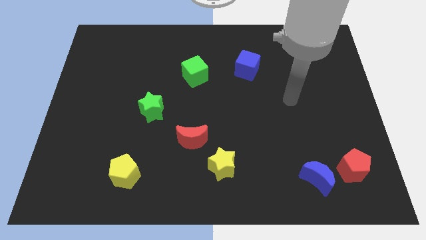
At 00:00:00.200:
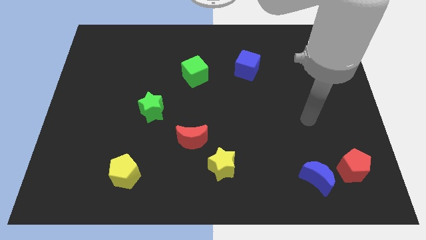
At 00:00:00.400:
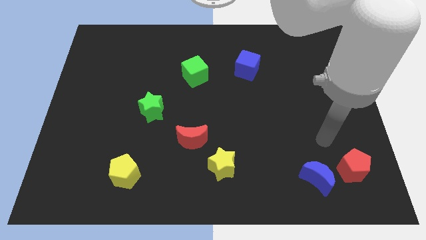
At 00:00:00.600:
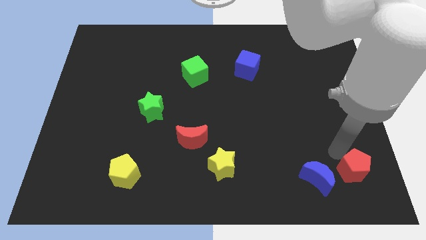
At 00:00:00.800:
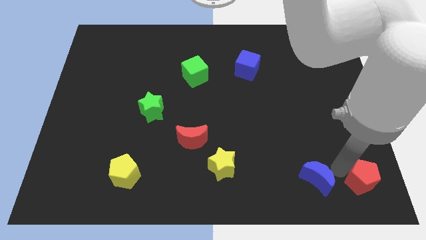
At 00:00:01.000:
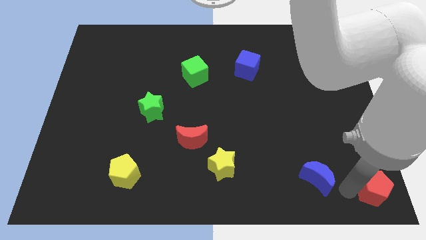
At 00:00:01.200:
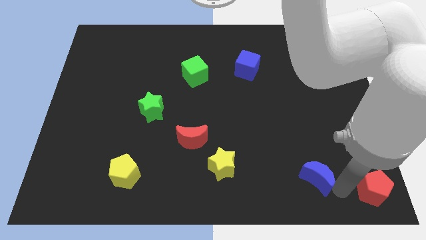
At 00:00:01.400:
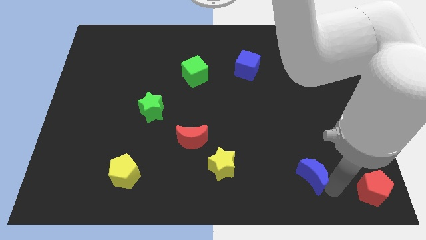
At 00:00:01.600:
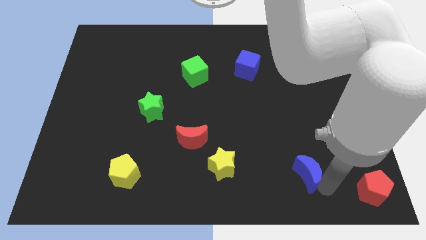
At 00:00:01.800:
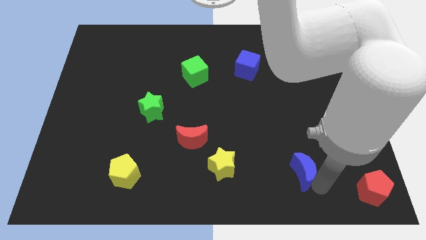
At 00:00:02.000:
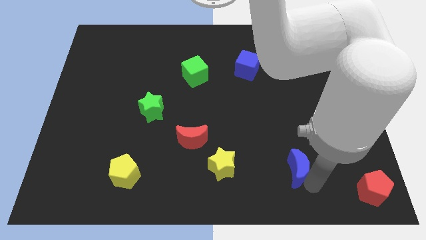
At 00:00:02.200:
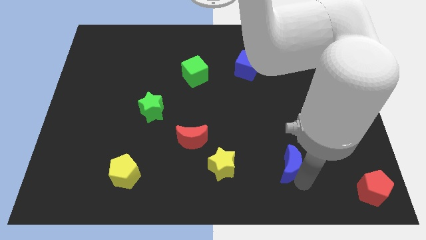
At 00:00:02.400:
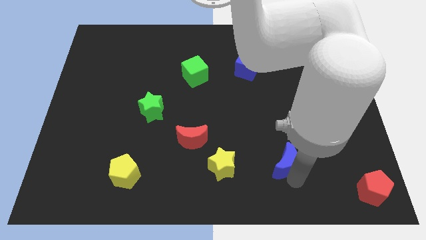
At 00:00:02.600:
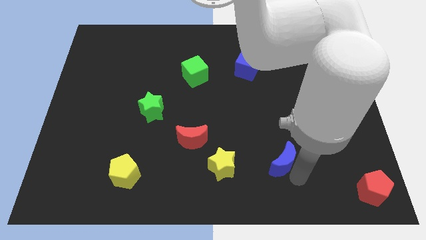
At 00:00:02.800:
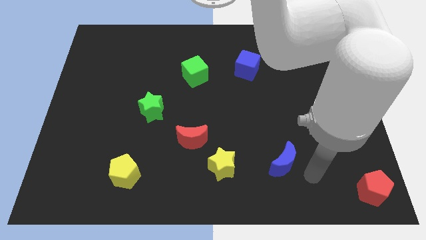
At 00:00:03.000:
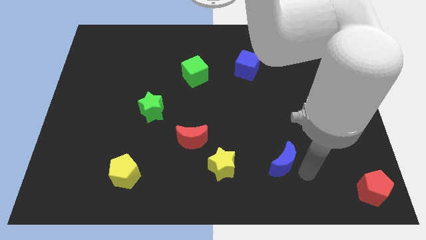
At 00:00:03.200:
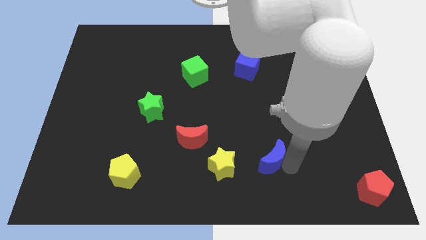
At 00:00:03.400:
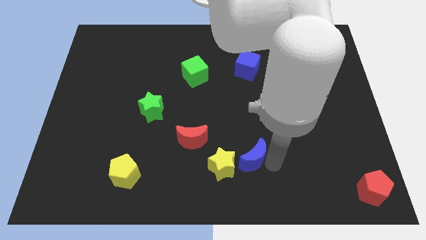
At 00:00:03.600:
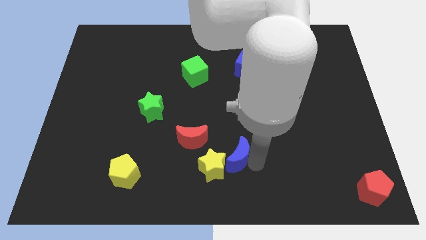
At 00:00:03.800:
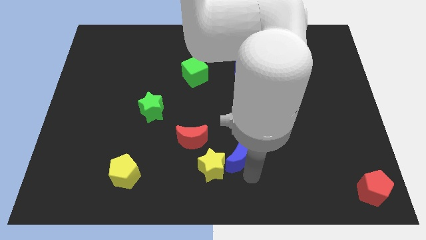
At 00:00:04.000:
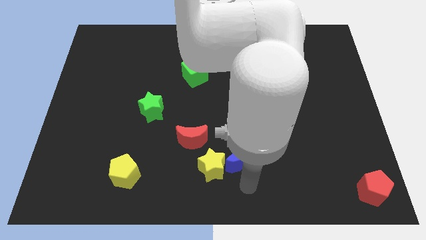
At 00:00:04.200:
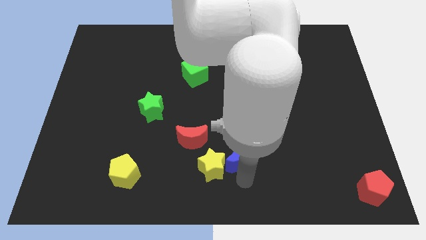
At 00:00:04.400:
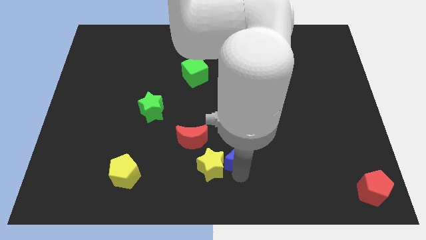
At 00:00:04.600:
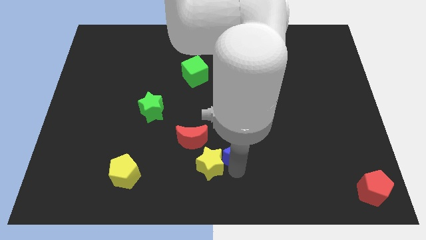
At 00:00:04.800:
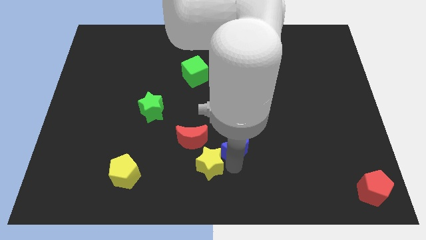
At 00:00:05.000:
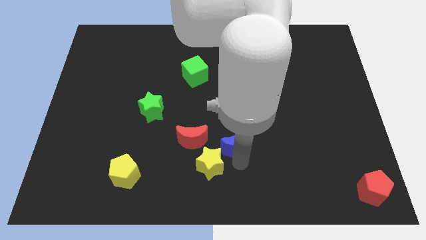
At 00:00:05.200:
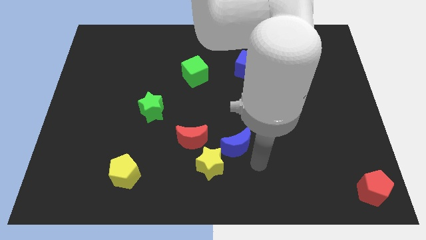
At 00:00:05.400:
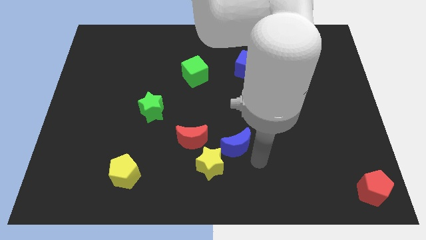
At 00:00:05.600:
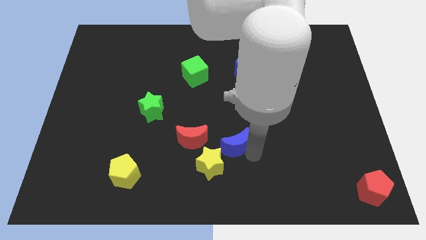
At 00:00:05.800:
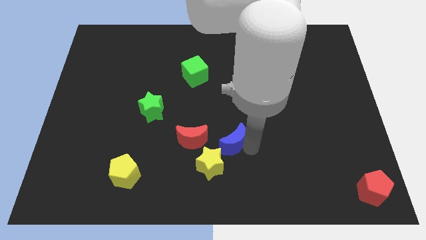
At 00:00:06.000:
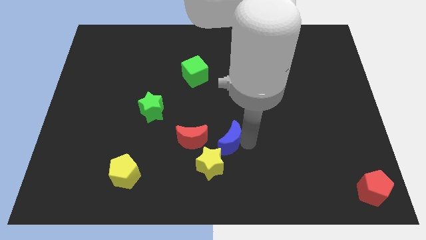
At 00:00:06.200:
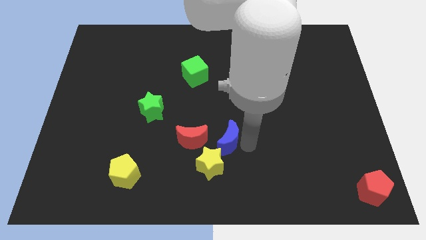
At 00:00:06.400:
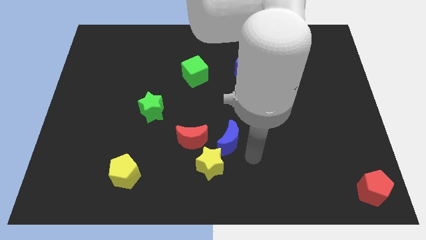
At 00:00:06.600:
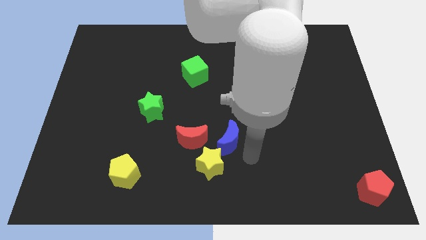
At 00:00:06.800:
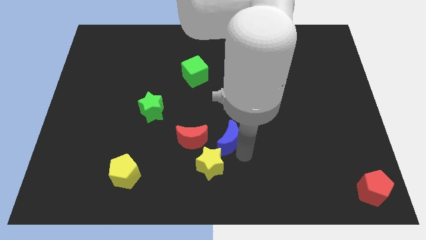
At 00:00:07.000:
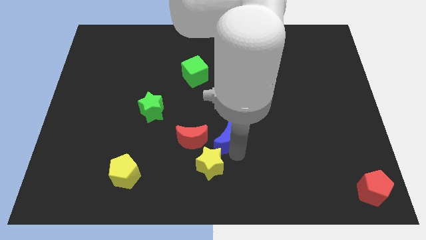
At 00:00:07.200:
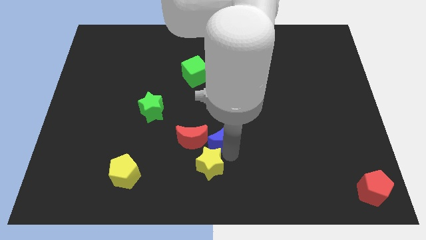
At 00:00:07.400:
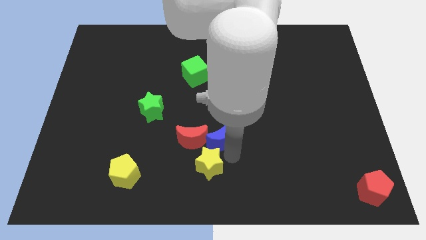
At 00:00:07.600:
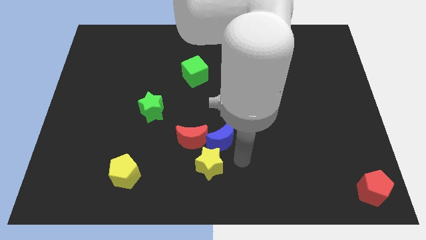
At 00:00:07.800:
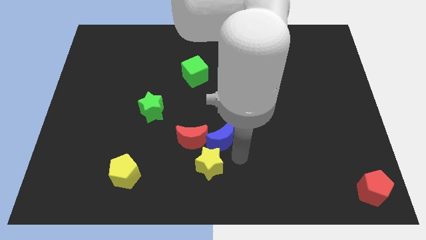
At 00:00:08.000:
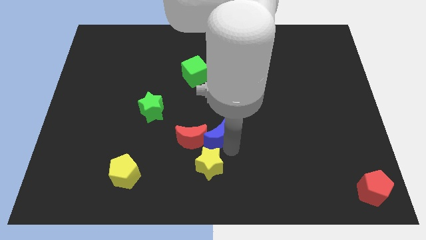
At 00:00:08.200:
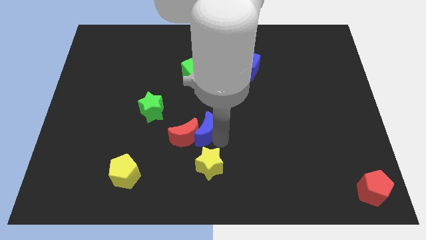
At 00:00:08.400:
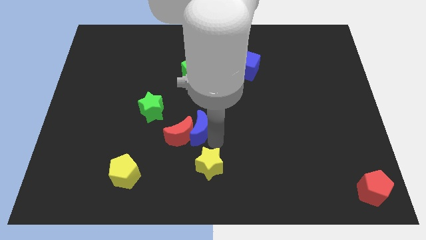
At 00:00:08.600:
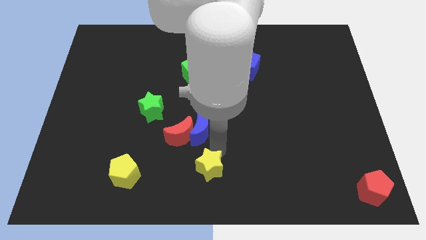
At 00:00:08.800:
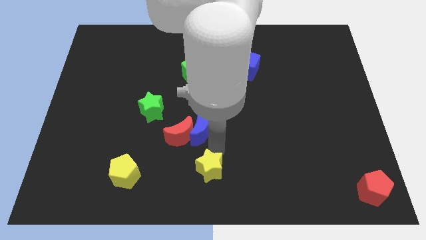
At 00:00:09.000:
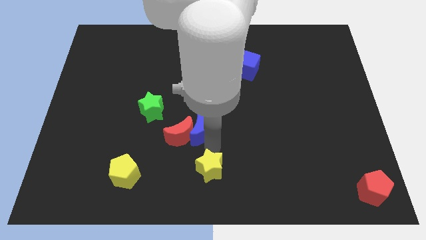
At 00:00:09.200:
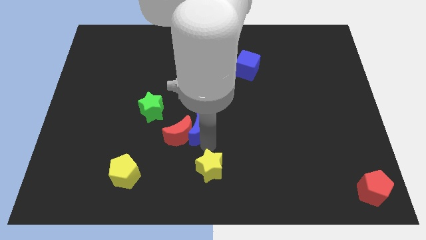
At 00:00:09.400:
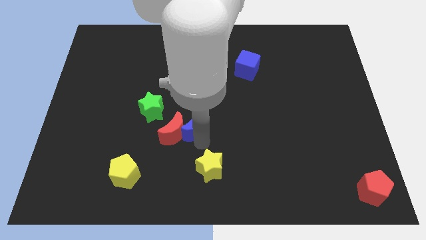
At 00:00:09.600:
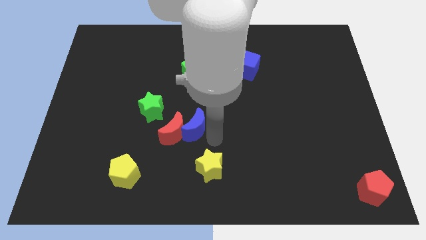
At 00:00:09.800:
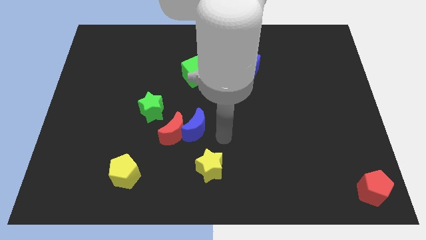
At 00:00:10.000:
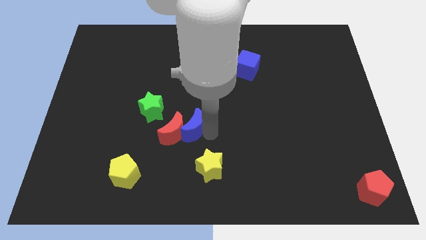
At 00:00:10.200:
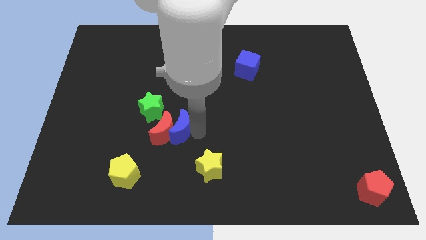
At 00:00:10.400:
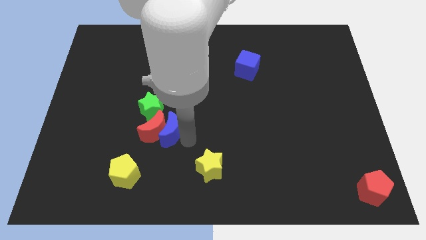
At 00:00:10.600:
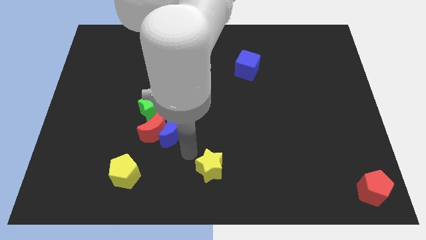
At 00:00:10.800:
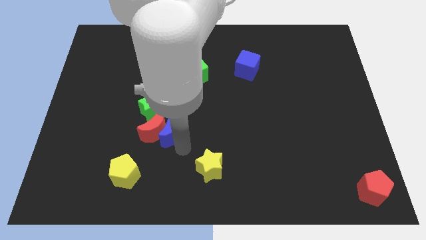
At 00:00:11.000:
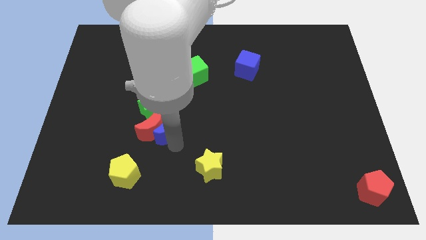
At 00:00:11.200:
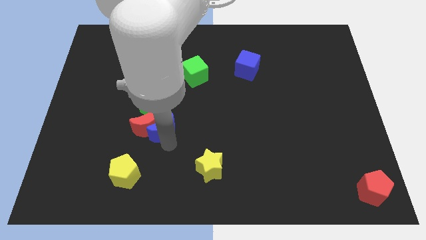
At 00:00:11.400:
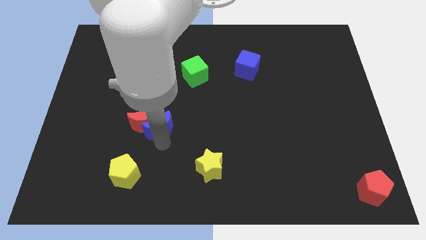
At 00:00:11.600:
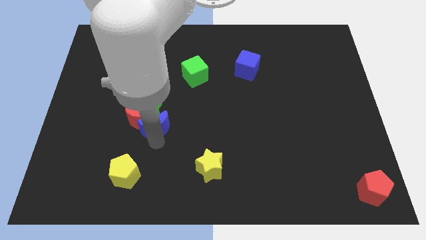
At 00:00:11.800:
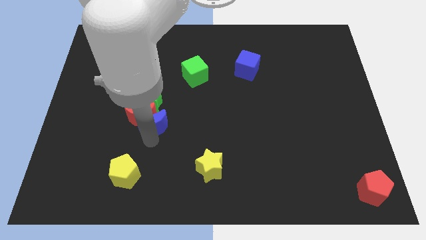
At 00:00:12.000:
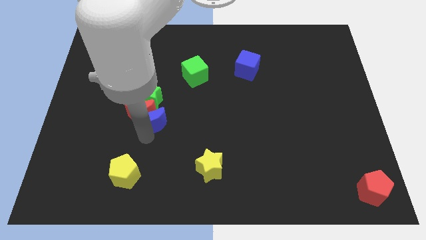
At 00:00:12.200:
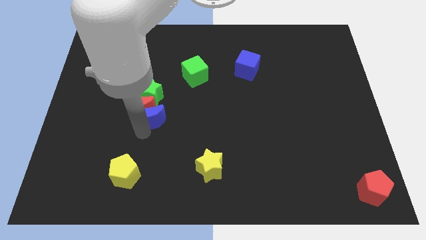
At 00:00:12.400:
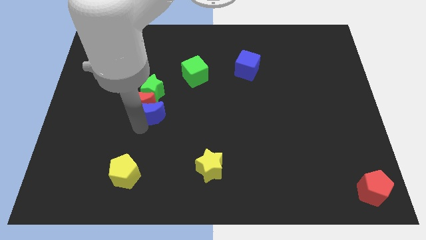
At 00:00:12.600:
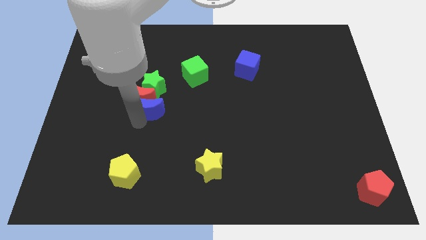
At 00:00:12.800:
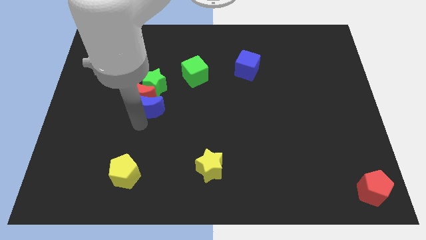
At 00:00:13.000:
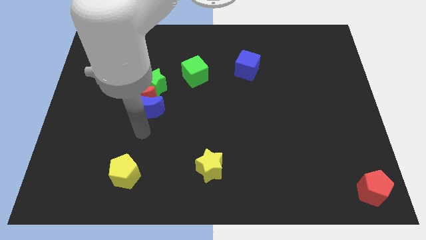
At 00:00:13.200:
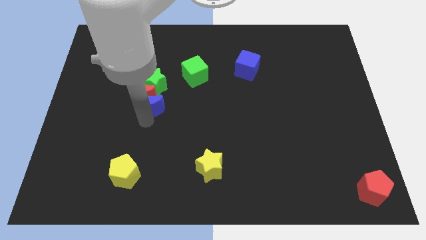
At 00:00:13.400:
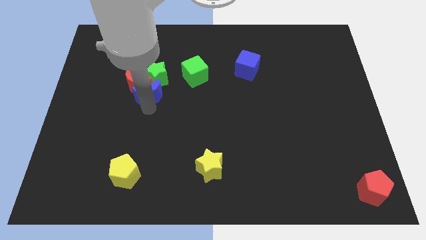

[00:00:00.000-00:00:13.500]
put the blue moon towards the green star
